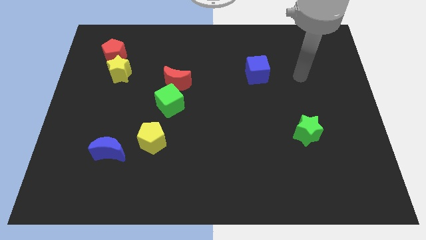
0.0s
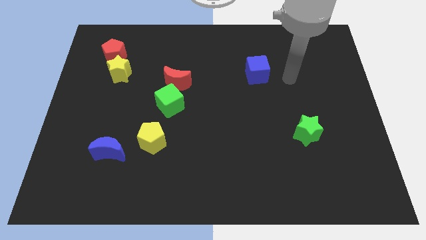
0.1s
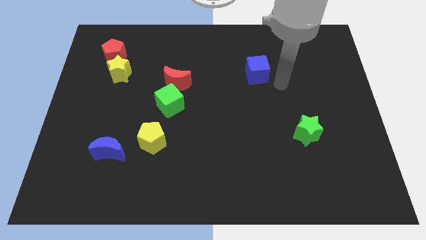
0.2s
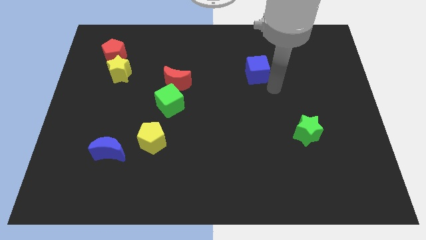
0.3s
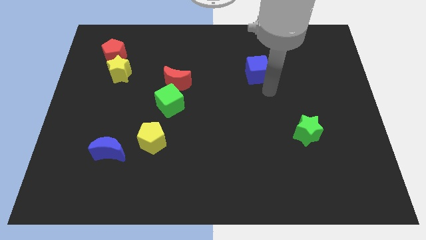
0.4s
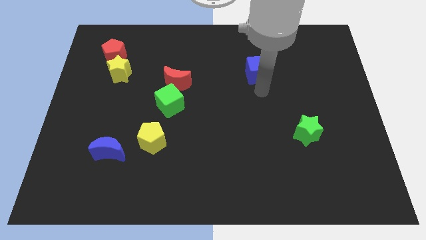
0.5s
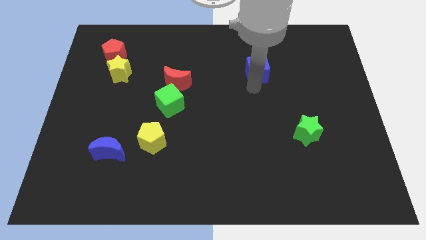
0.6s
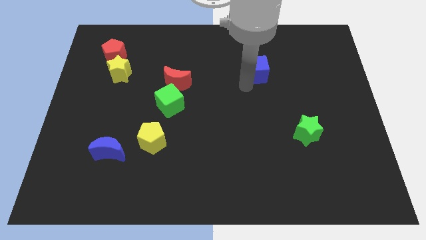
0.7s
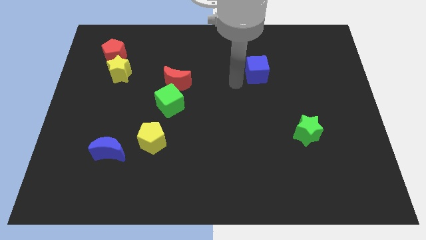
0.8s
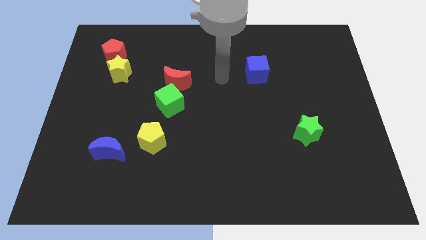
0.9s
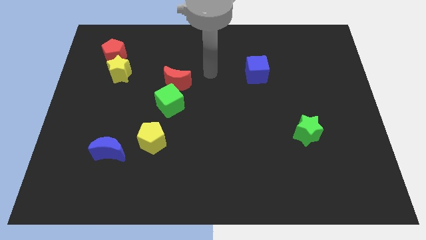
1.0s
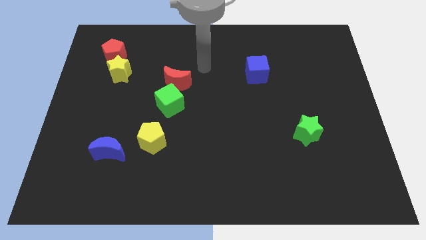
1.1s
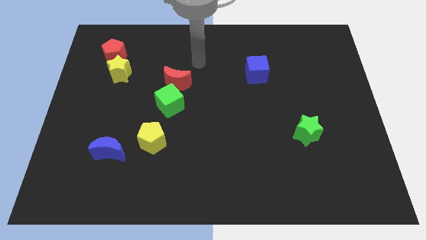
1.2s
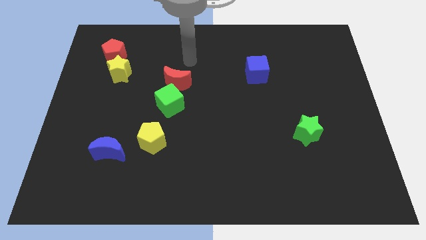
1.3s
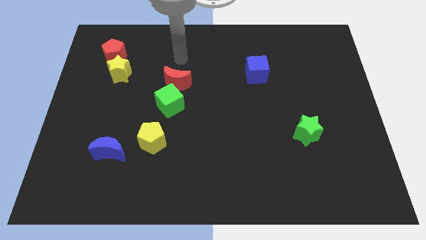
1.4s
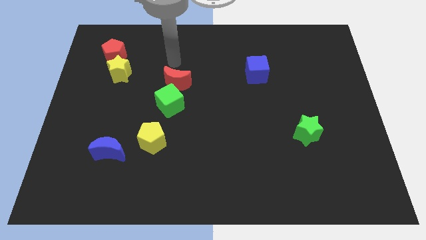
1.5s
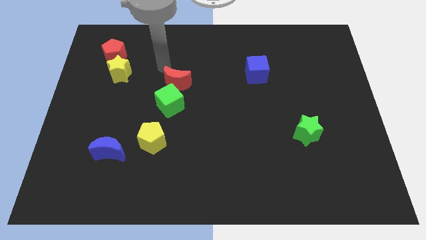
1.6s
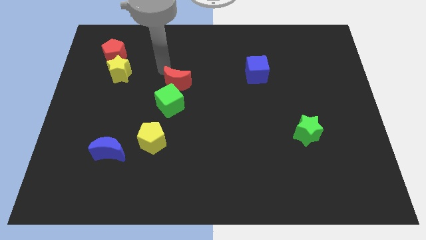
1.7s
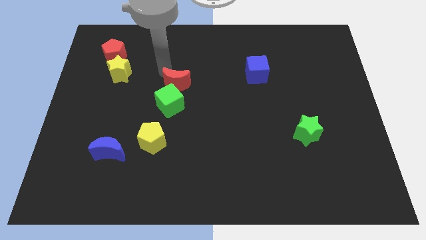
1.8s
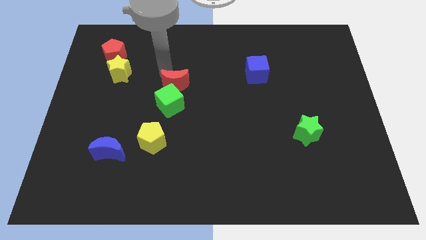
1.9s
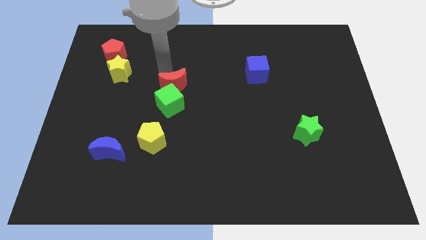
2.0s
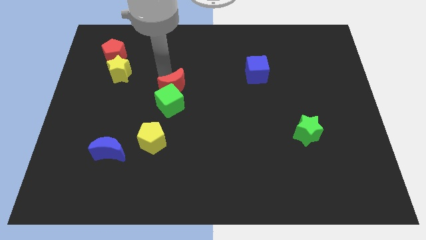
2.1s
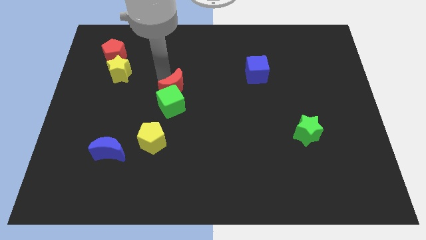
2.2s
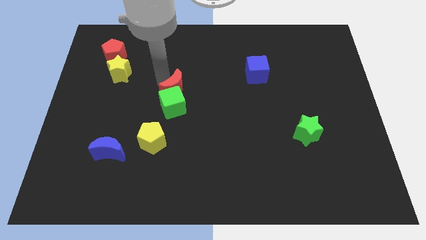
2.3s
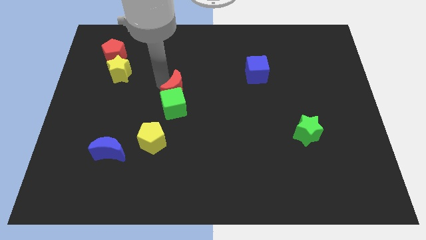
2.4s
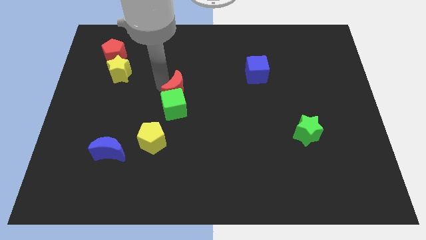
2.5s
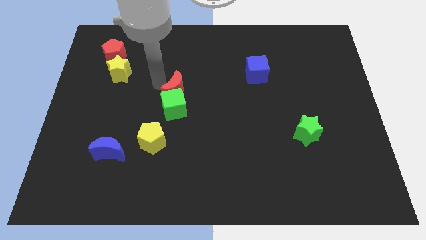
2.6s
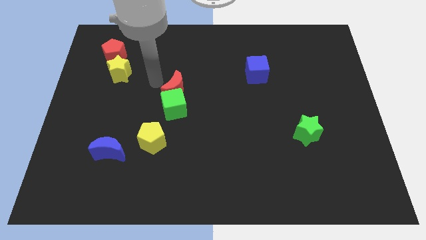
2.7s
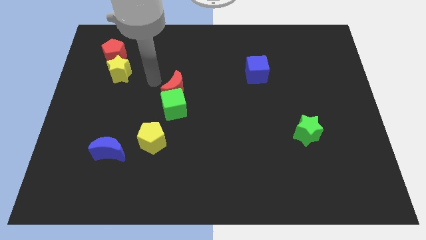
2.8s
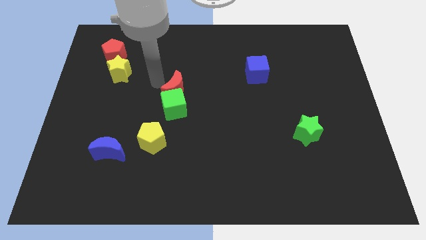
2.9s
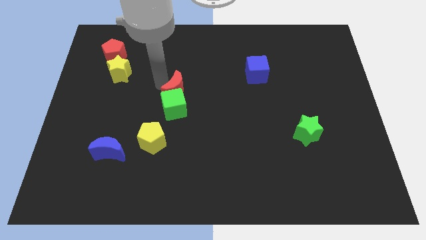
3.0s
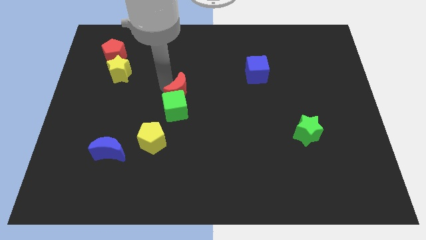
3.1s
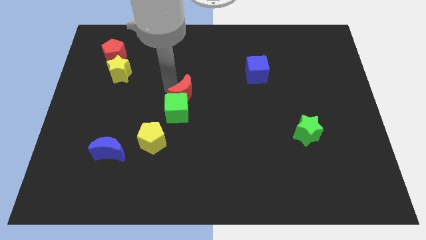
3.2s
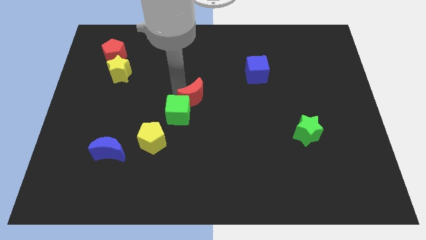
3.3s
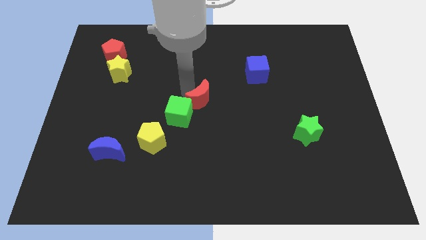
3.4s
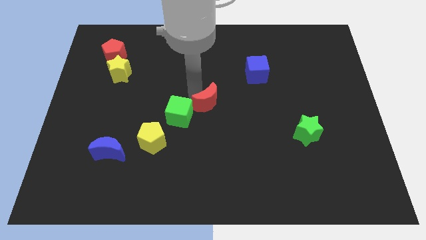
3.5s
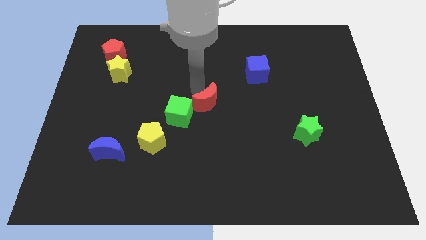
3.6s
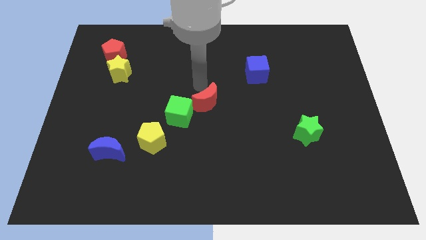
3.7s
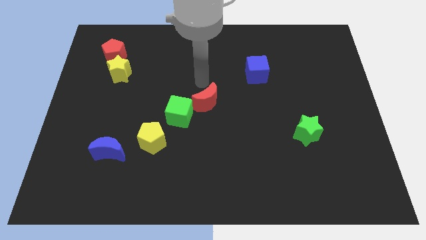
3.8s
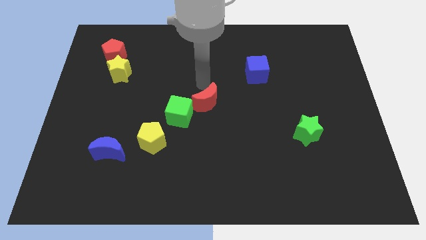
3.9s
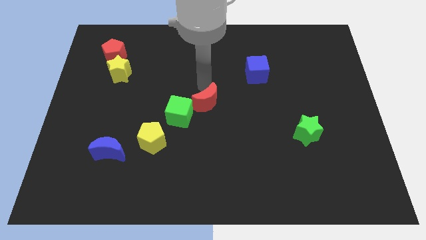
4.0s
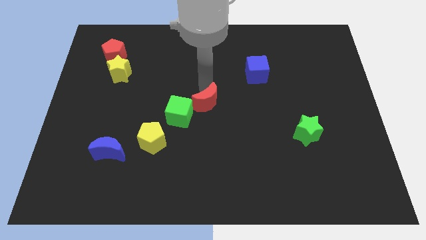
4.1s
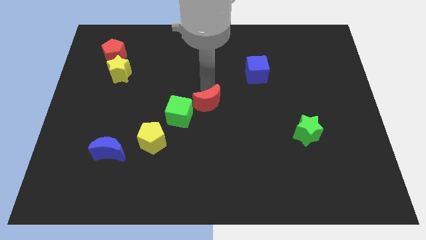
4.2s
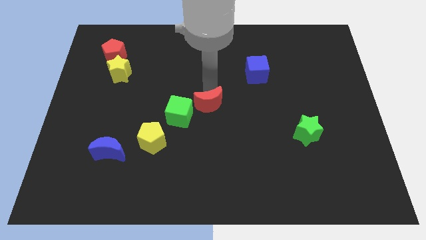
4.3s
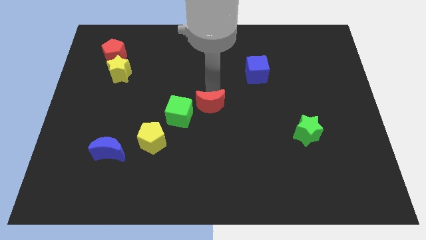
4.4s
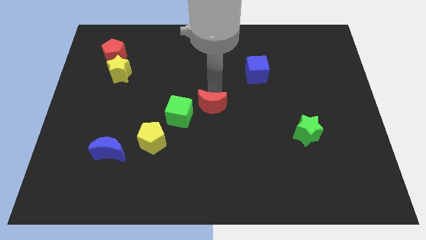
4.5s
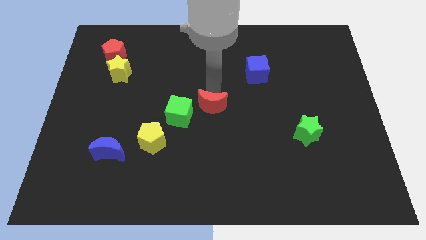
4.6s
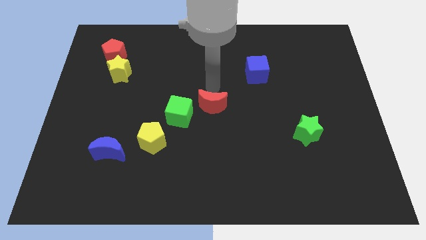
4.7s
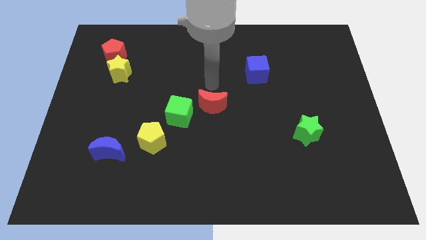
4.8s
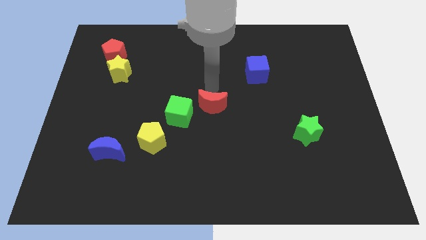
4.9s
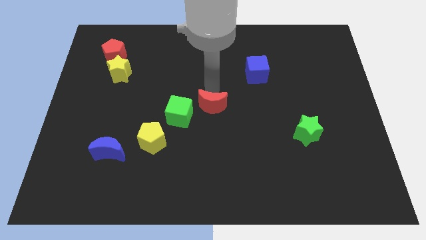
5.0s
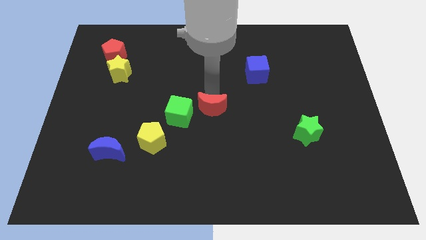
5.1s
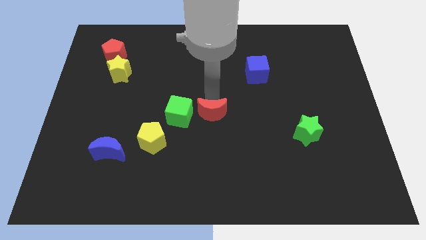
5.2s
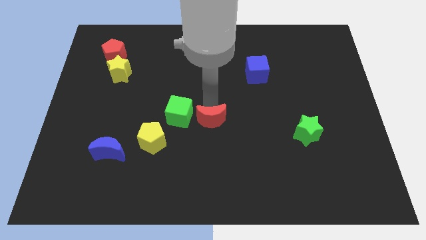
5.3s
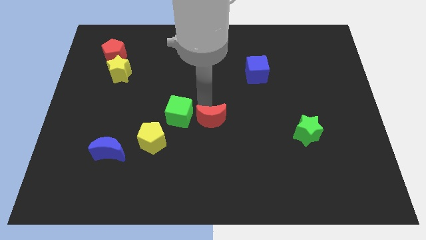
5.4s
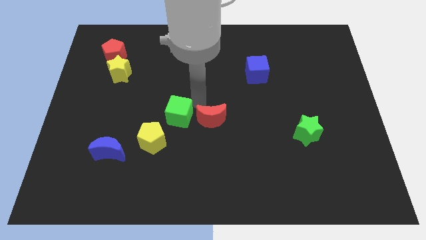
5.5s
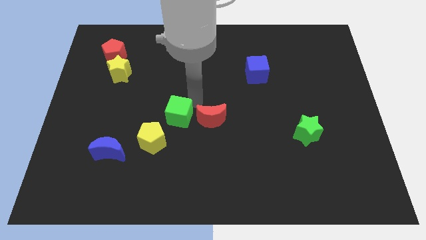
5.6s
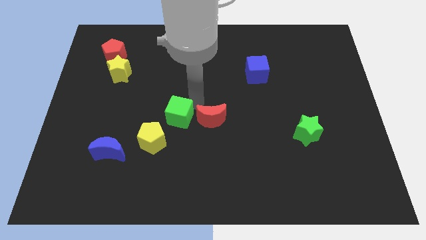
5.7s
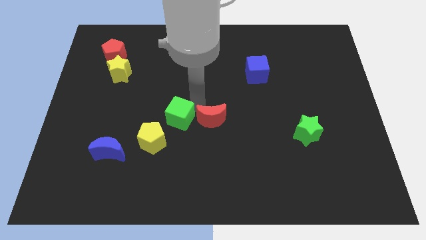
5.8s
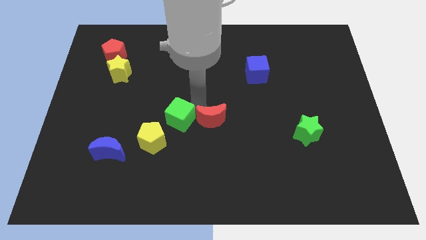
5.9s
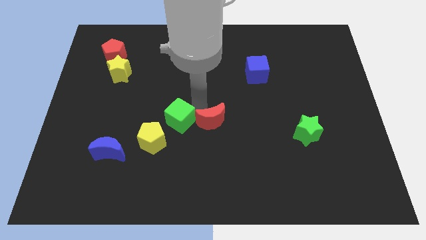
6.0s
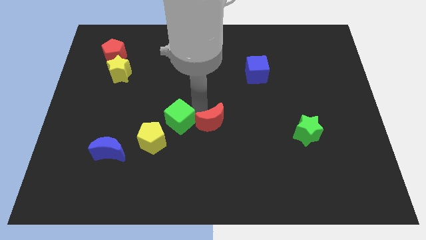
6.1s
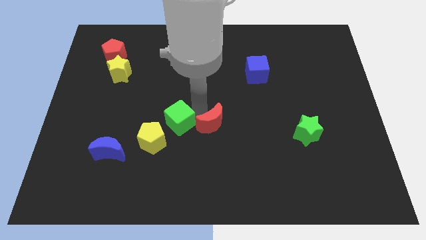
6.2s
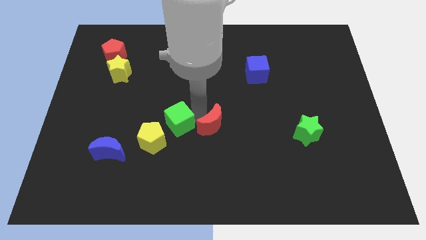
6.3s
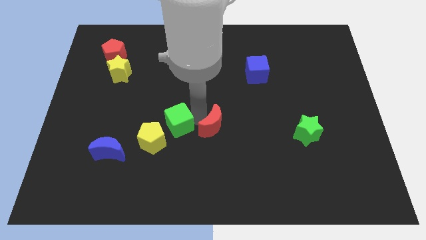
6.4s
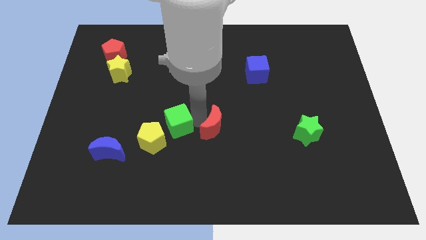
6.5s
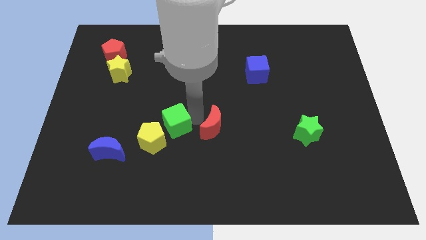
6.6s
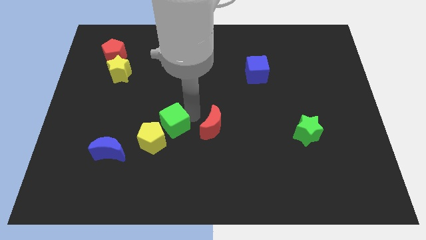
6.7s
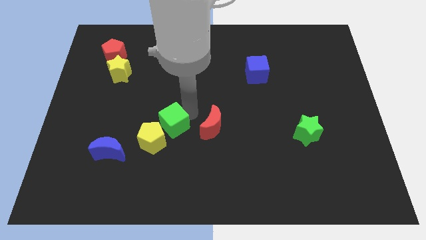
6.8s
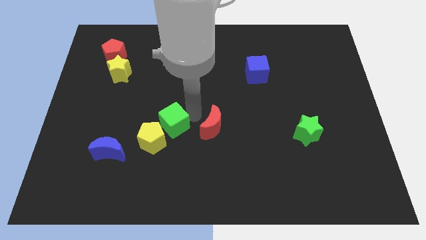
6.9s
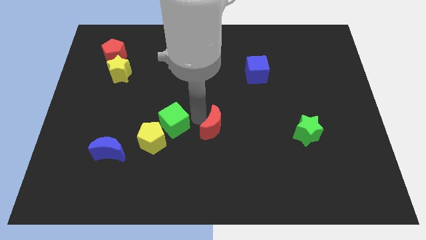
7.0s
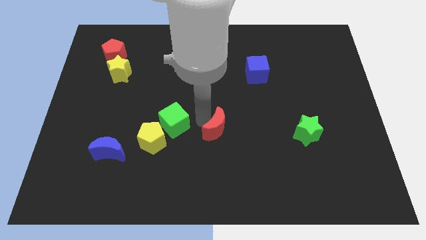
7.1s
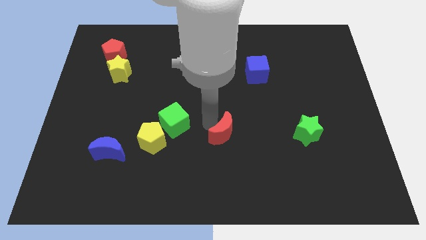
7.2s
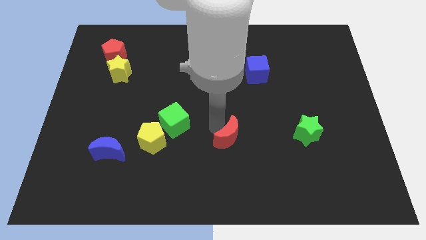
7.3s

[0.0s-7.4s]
move the red moon downwards and to the right diagonally

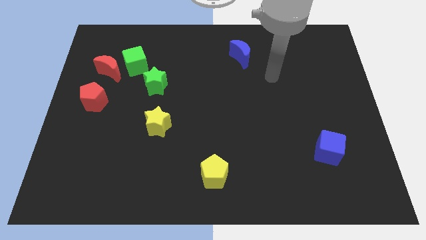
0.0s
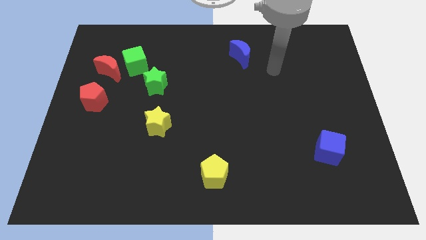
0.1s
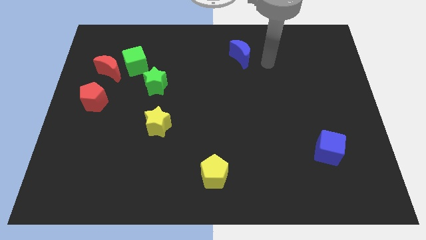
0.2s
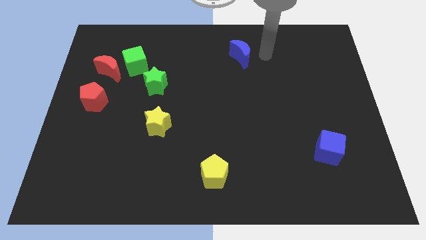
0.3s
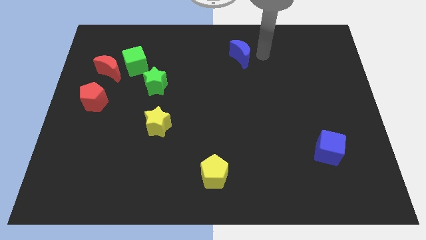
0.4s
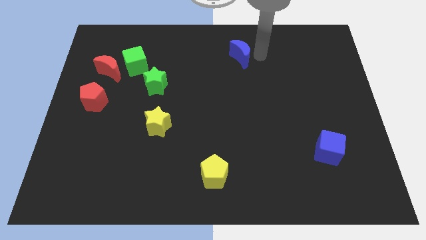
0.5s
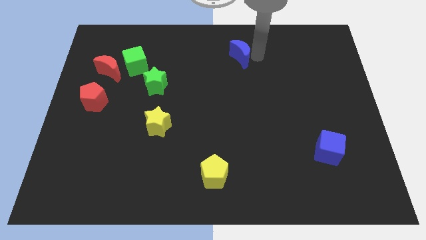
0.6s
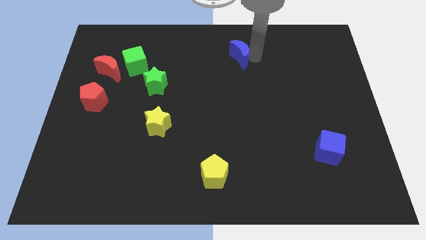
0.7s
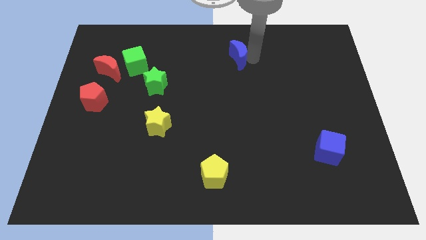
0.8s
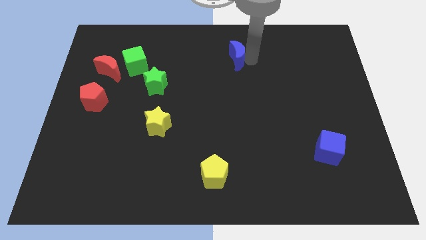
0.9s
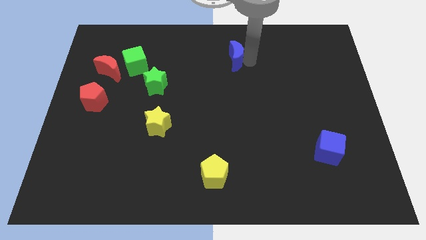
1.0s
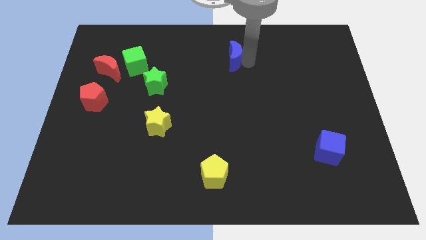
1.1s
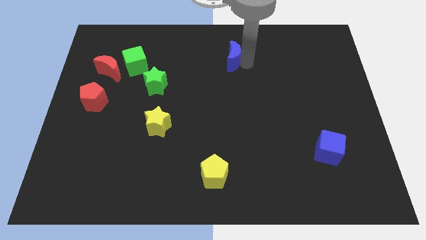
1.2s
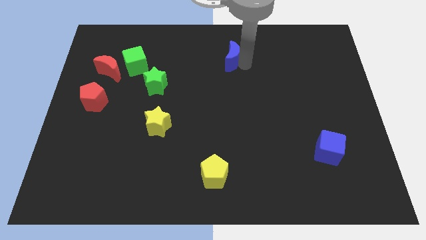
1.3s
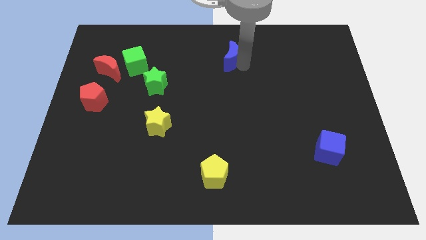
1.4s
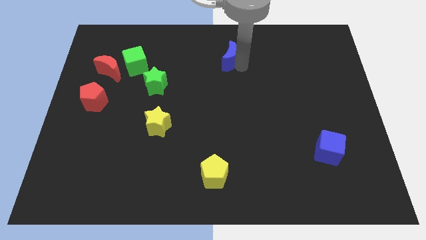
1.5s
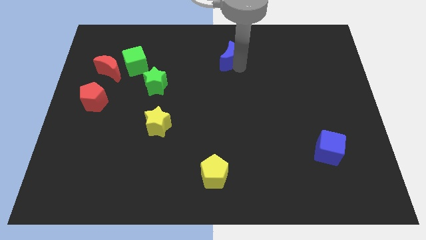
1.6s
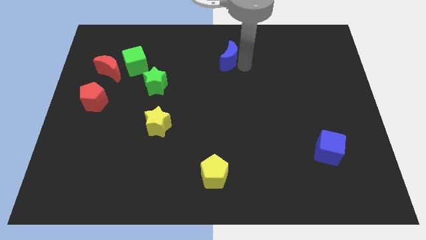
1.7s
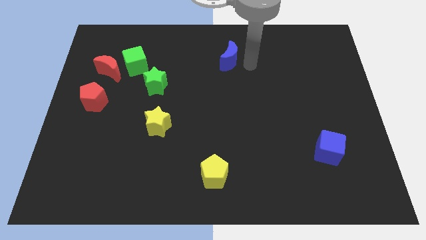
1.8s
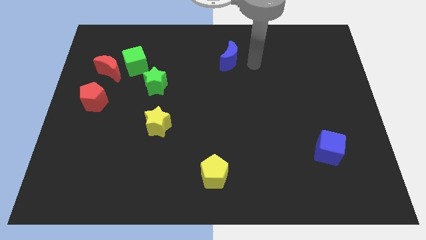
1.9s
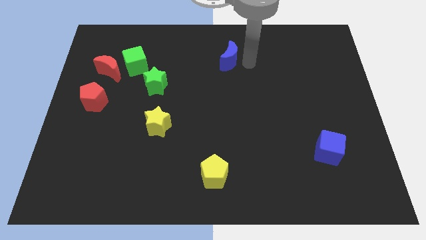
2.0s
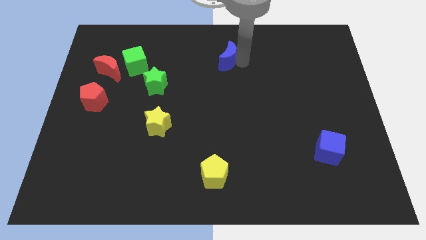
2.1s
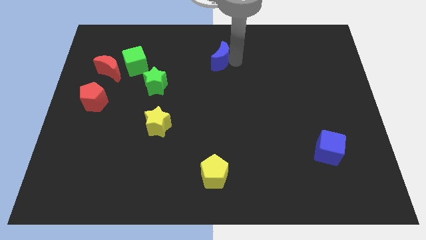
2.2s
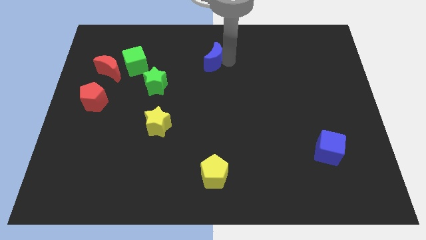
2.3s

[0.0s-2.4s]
slightly push the blue moon to the left
